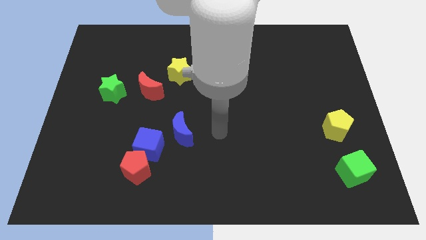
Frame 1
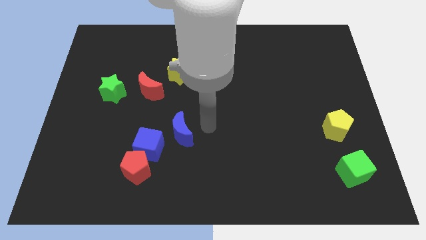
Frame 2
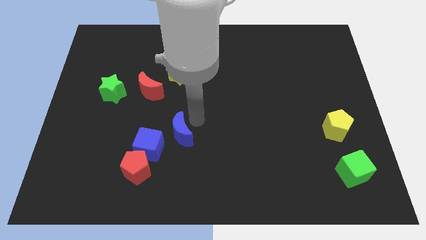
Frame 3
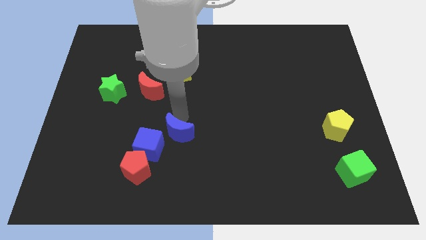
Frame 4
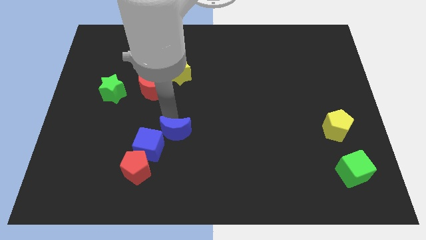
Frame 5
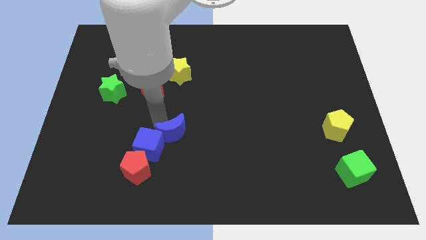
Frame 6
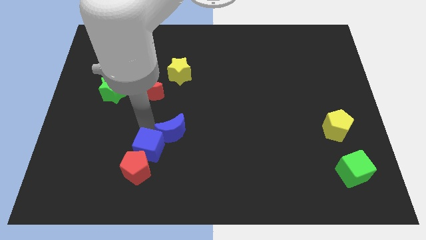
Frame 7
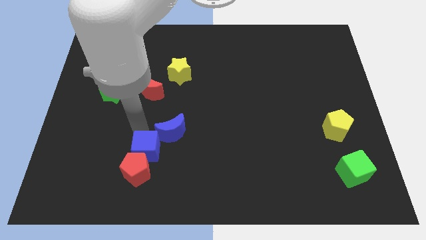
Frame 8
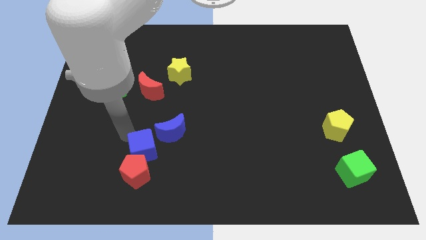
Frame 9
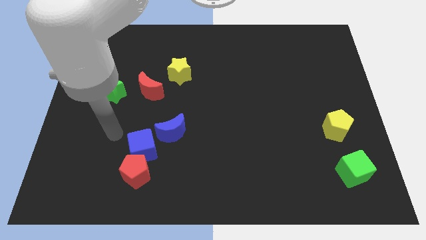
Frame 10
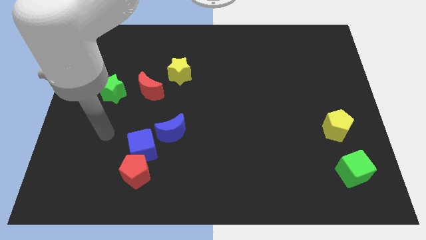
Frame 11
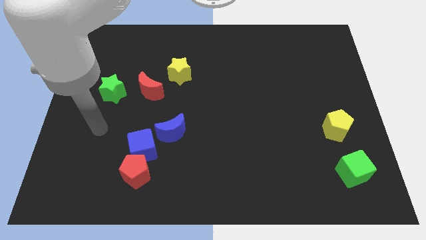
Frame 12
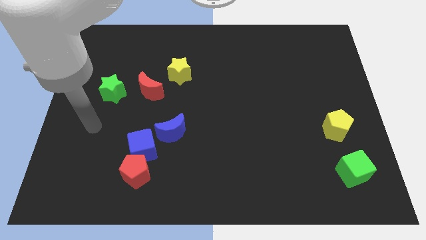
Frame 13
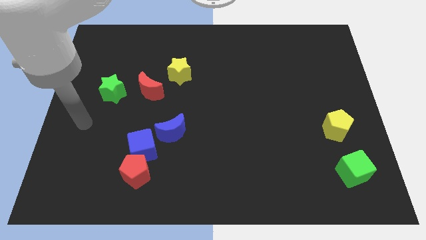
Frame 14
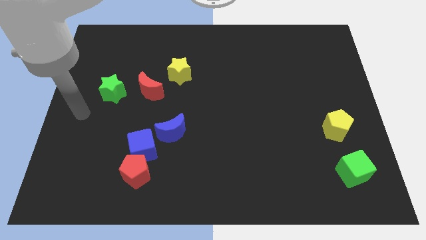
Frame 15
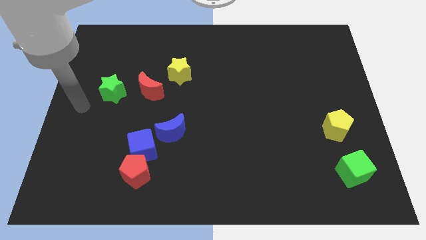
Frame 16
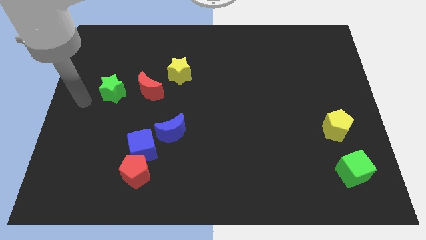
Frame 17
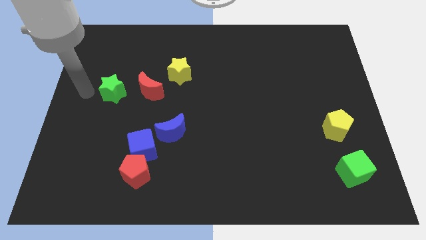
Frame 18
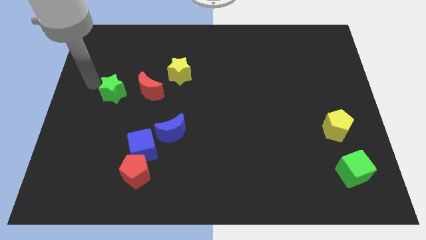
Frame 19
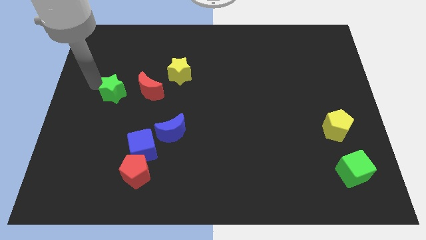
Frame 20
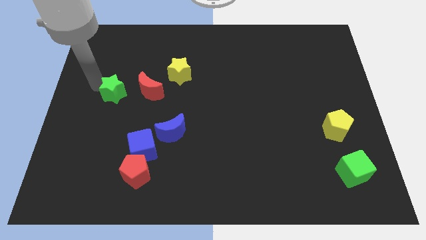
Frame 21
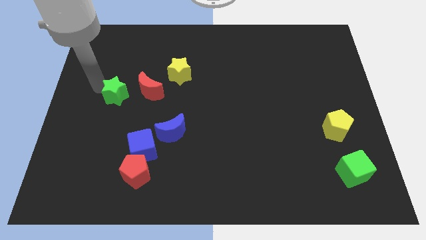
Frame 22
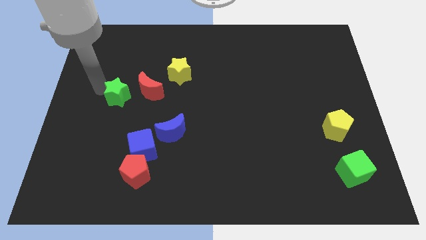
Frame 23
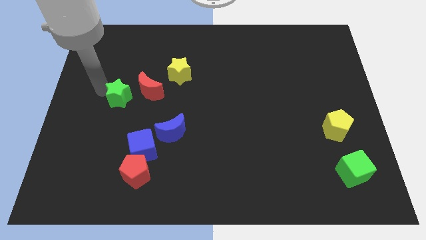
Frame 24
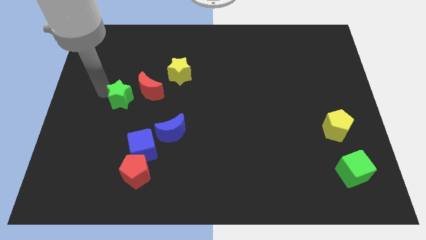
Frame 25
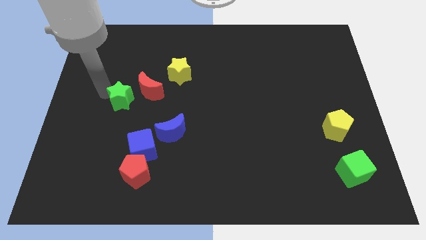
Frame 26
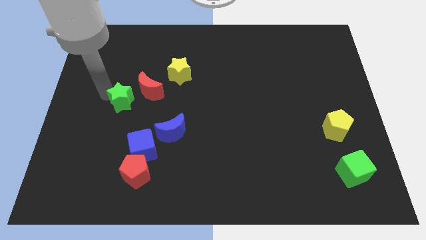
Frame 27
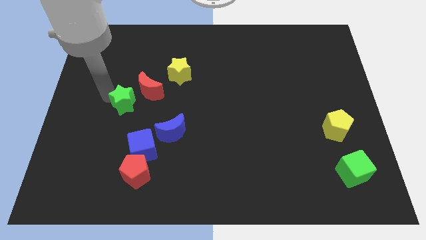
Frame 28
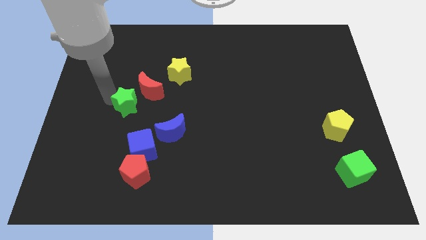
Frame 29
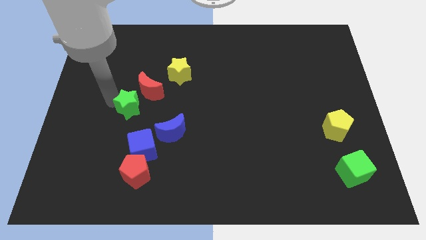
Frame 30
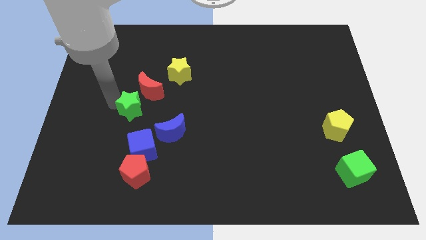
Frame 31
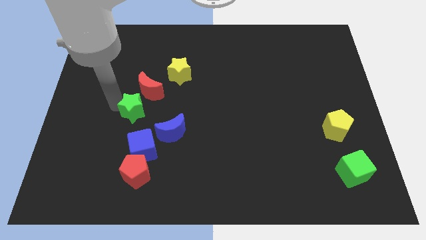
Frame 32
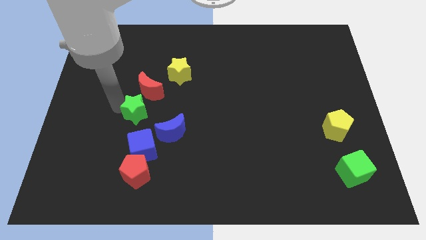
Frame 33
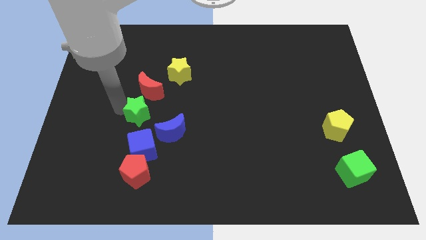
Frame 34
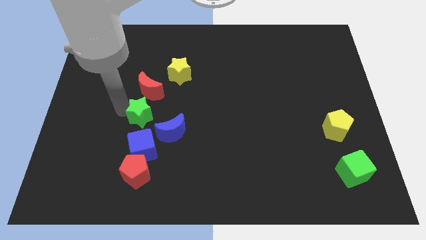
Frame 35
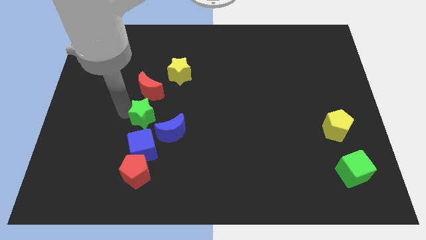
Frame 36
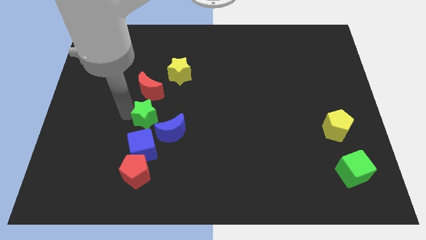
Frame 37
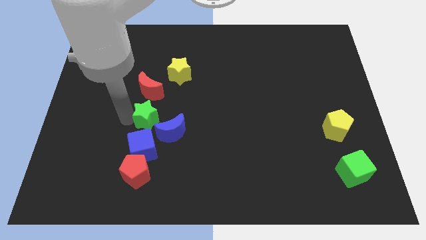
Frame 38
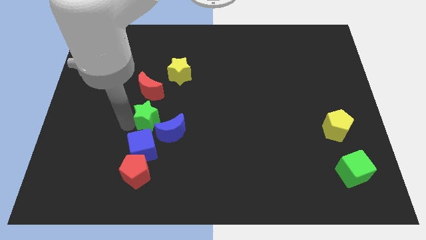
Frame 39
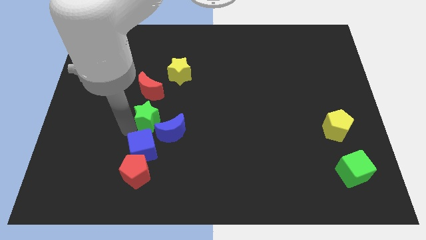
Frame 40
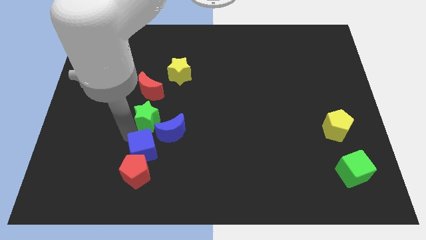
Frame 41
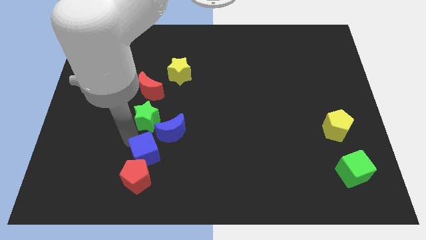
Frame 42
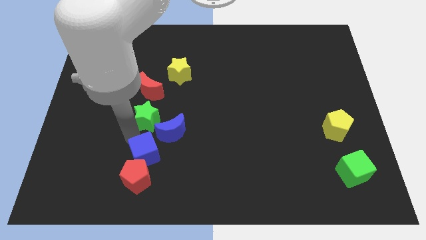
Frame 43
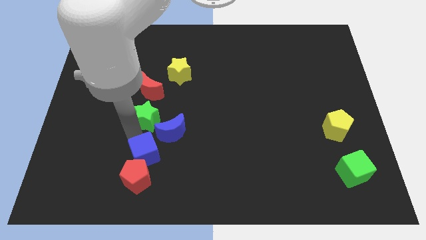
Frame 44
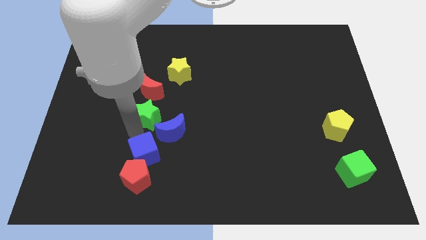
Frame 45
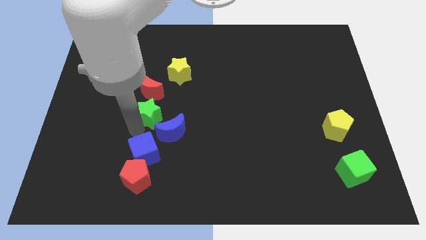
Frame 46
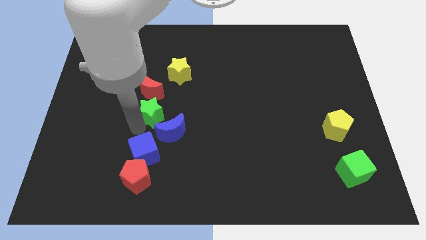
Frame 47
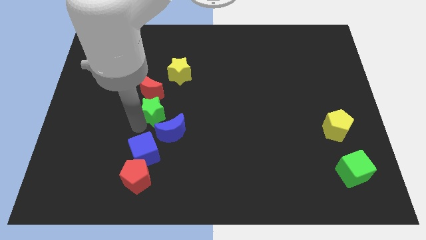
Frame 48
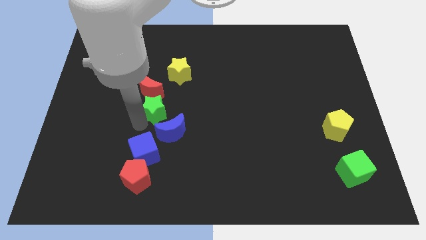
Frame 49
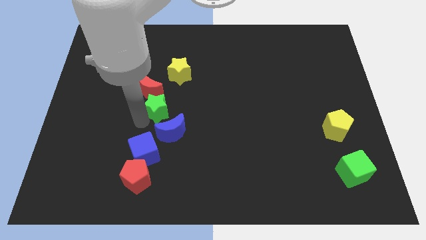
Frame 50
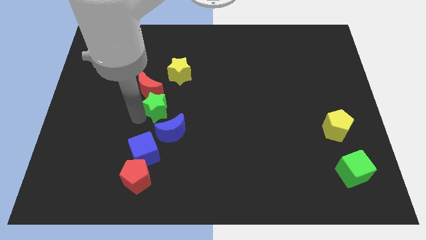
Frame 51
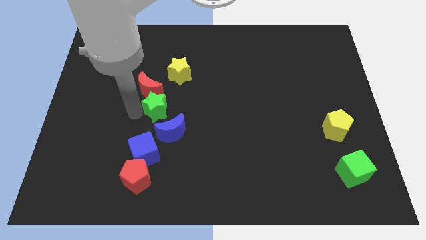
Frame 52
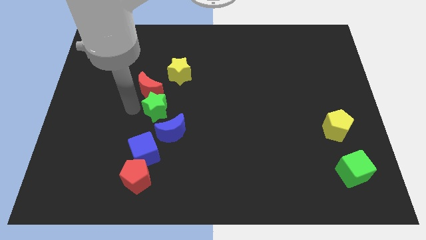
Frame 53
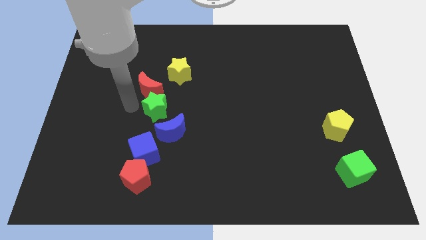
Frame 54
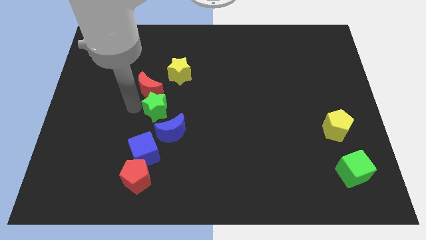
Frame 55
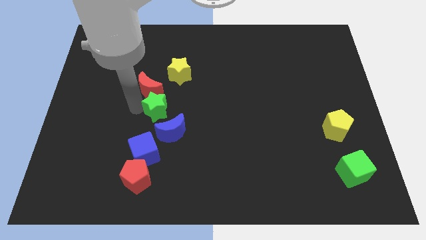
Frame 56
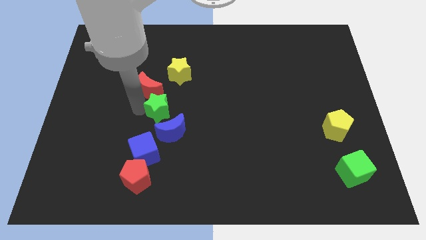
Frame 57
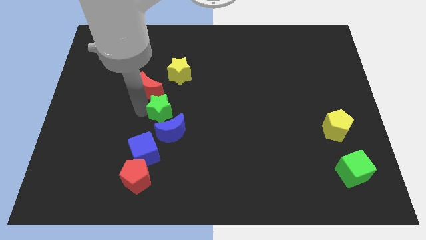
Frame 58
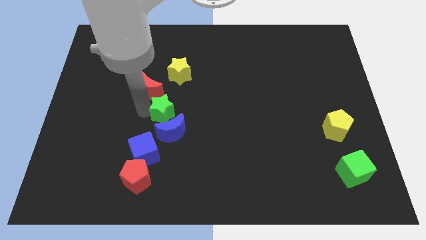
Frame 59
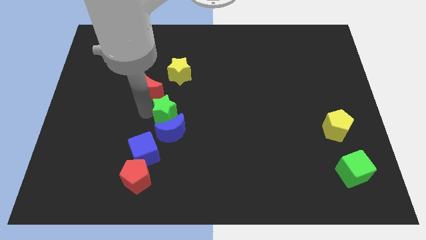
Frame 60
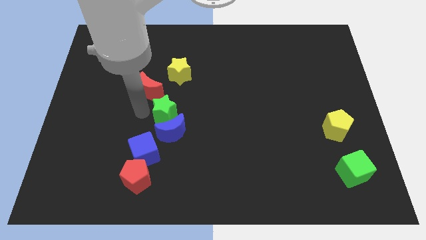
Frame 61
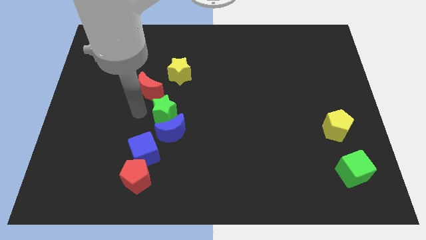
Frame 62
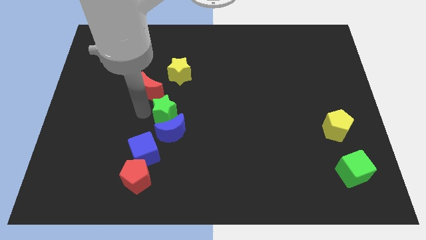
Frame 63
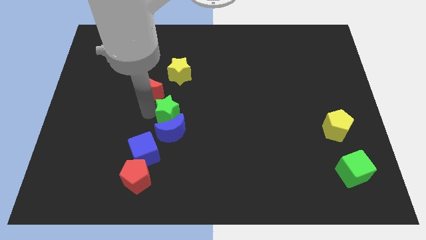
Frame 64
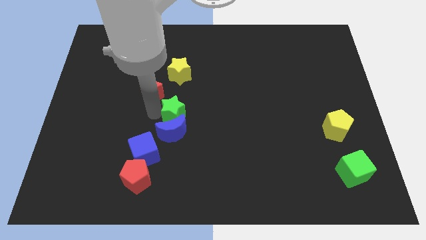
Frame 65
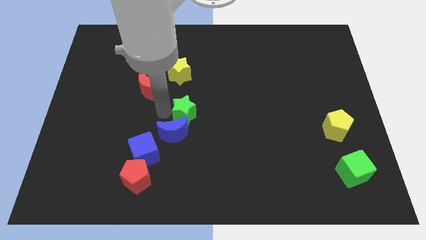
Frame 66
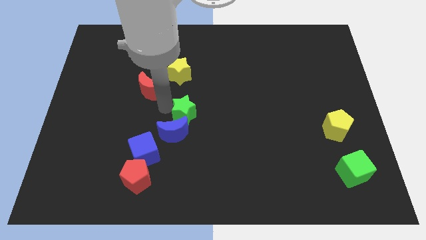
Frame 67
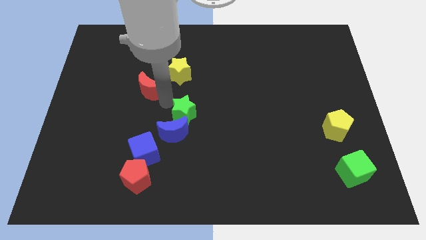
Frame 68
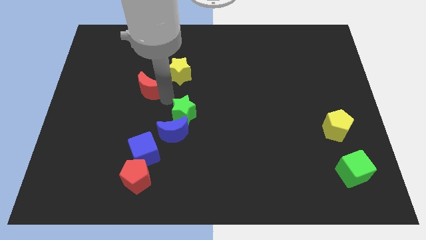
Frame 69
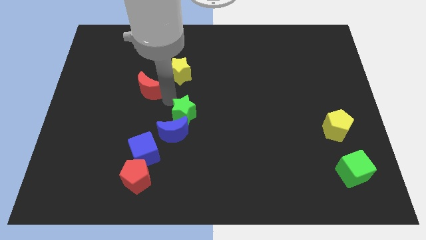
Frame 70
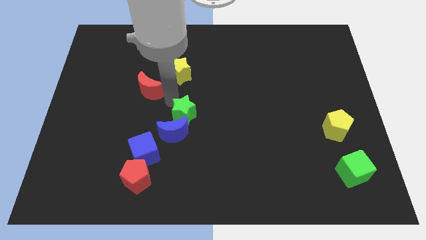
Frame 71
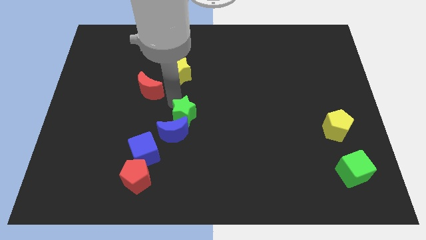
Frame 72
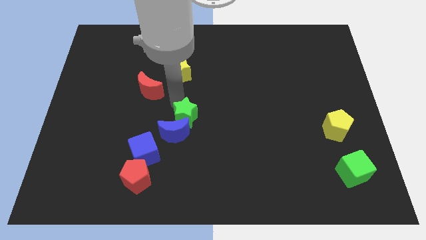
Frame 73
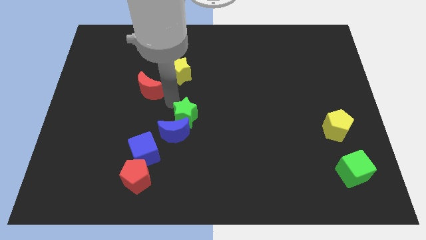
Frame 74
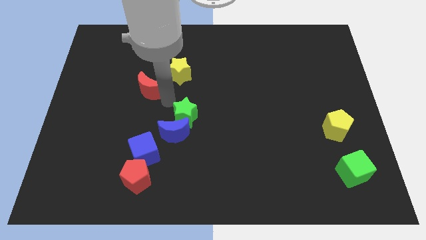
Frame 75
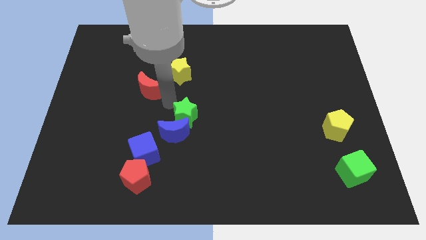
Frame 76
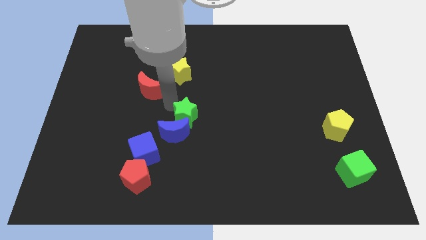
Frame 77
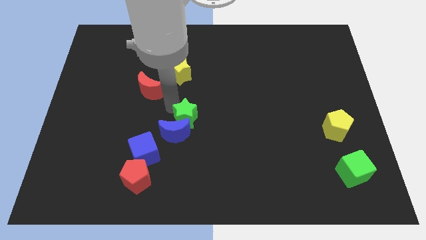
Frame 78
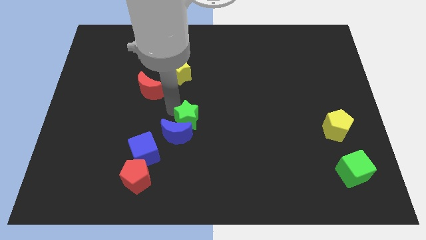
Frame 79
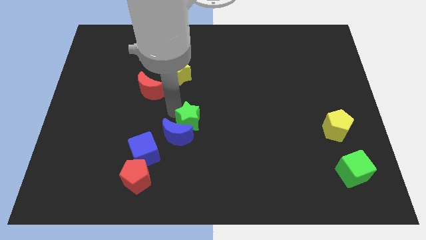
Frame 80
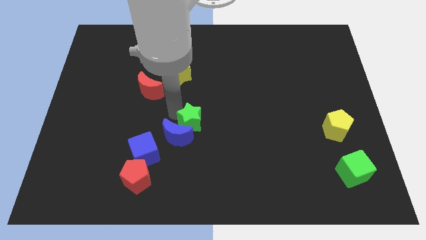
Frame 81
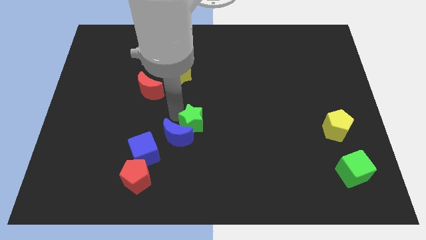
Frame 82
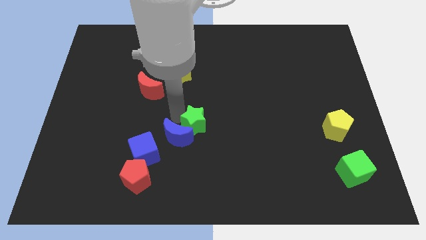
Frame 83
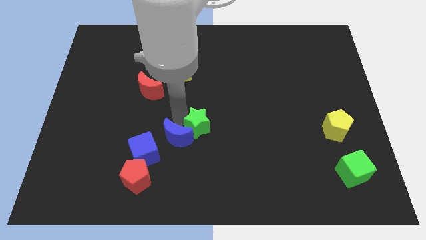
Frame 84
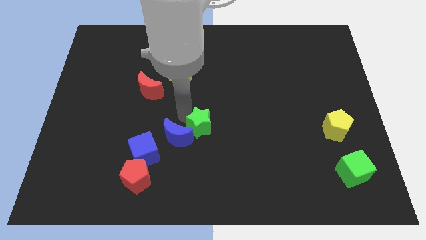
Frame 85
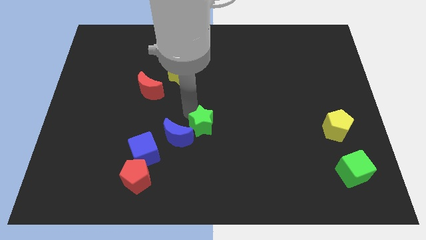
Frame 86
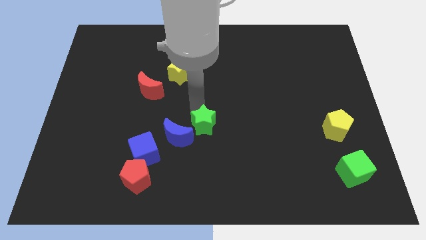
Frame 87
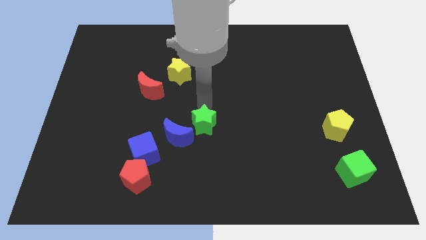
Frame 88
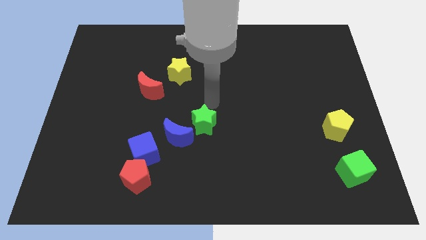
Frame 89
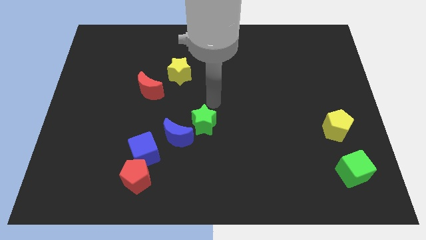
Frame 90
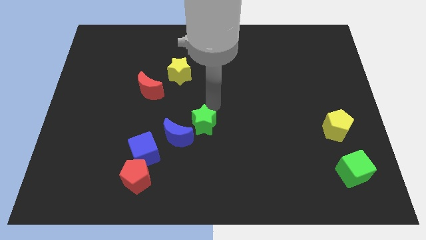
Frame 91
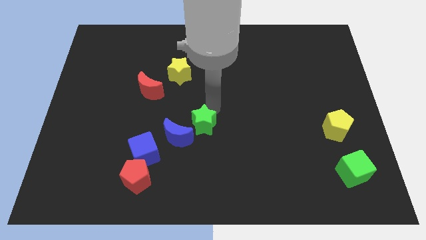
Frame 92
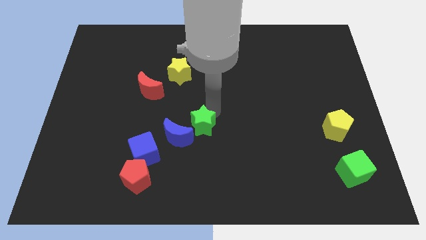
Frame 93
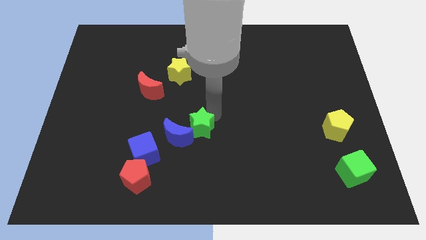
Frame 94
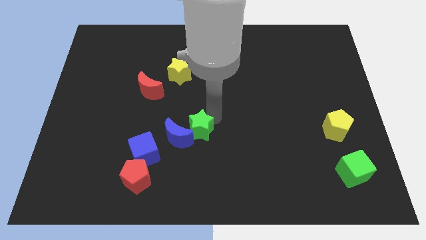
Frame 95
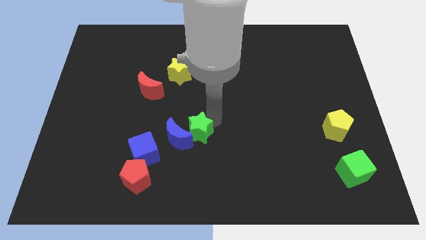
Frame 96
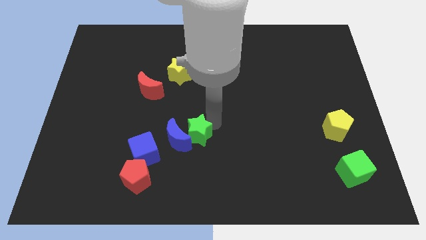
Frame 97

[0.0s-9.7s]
move the green star just right of the blue cube
